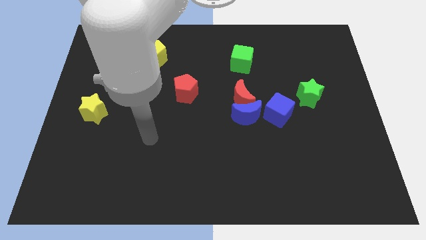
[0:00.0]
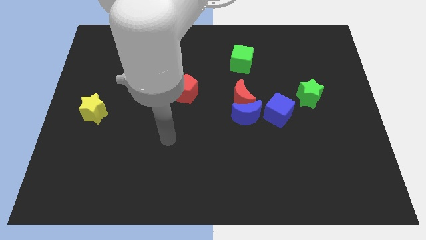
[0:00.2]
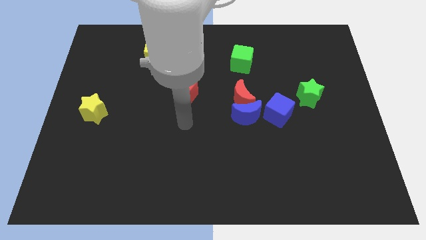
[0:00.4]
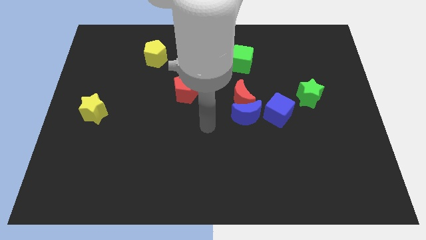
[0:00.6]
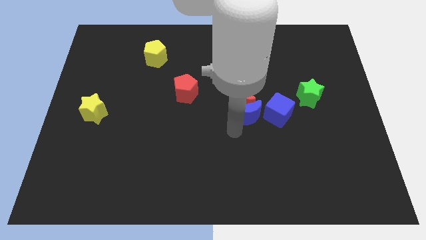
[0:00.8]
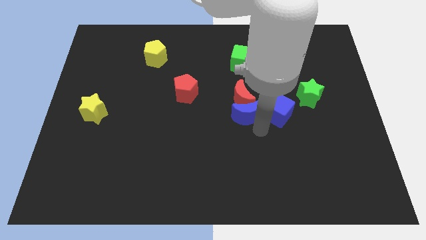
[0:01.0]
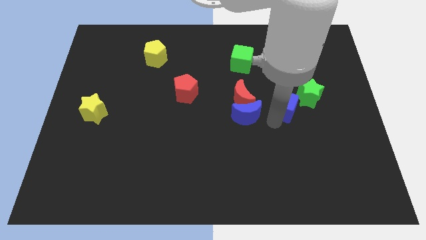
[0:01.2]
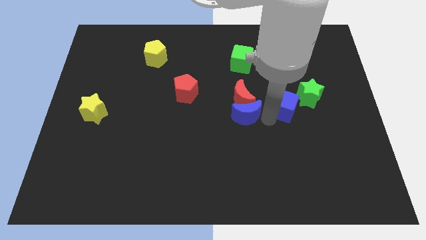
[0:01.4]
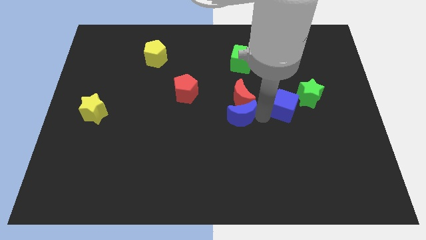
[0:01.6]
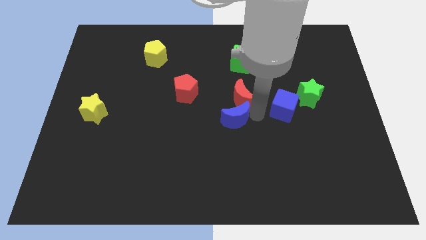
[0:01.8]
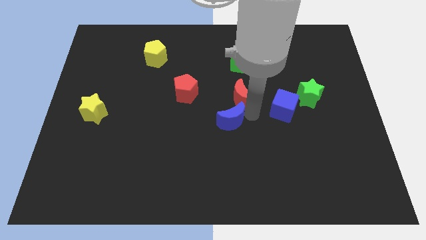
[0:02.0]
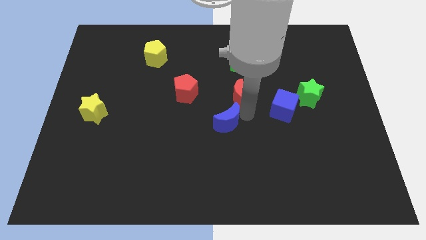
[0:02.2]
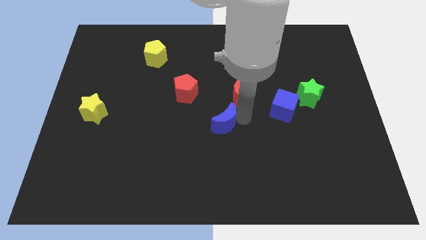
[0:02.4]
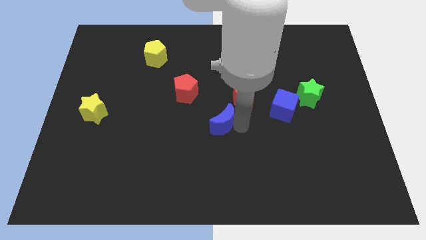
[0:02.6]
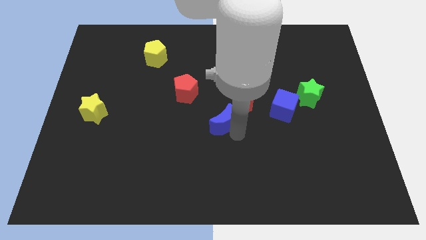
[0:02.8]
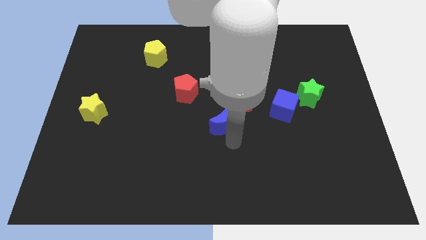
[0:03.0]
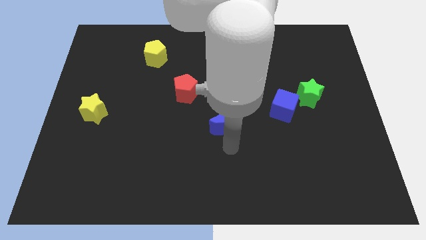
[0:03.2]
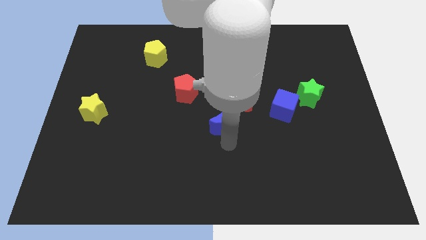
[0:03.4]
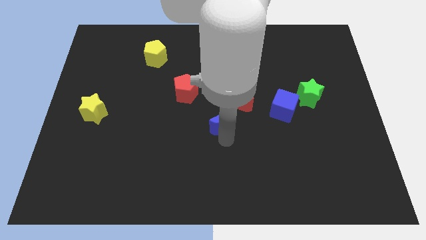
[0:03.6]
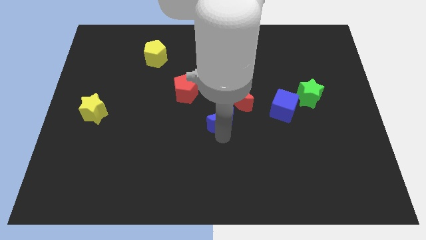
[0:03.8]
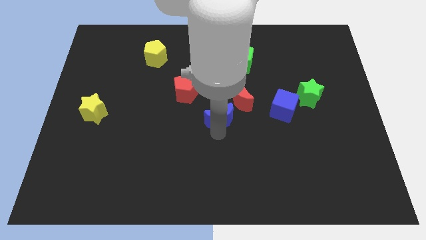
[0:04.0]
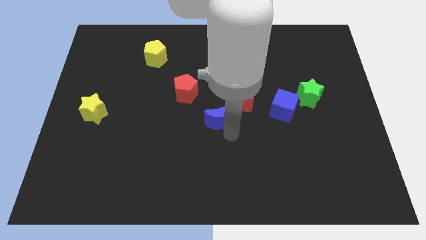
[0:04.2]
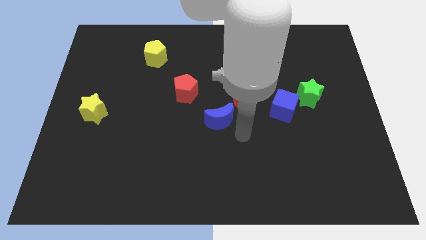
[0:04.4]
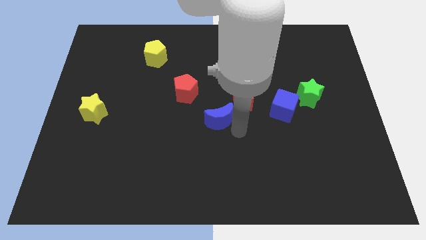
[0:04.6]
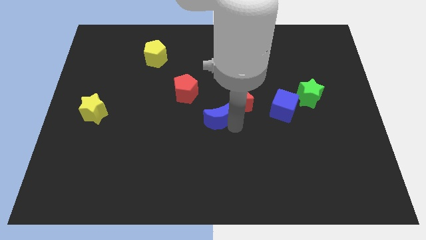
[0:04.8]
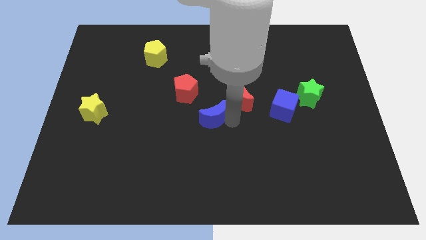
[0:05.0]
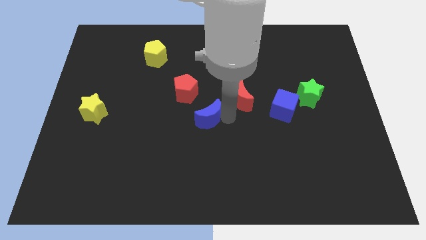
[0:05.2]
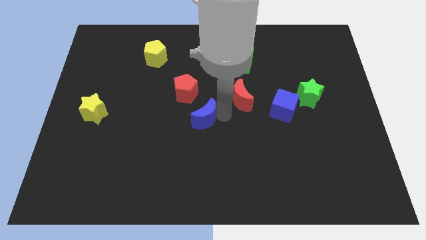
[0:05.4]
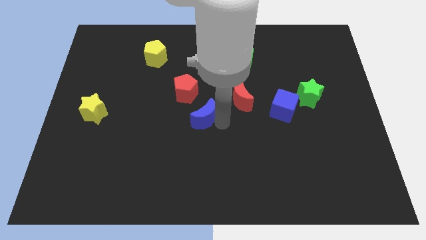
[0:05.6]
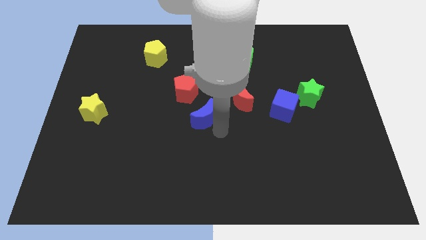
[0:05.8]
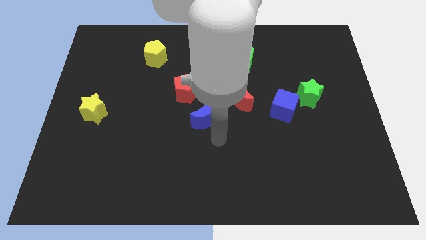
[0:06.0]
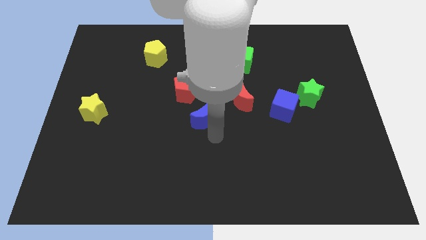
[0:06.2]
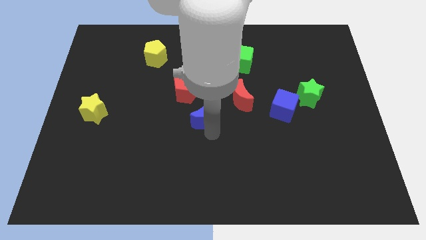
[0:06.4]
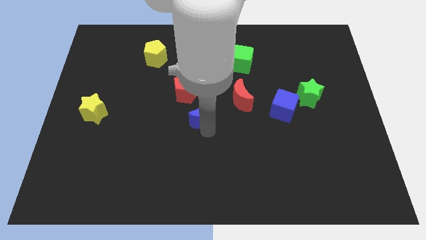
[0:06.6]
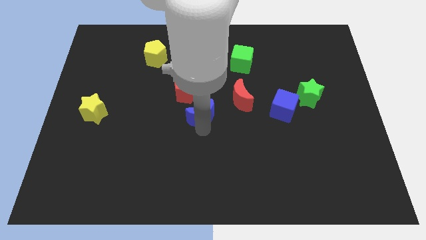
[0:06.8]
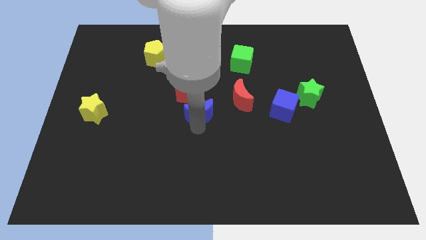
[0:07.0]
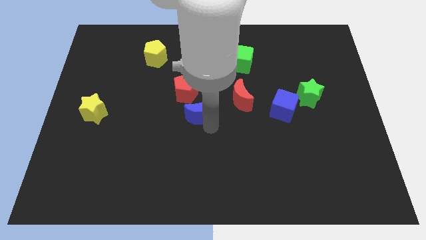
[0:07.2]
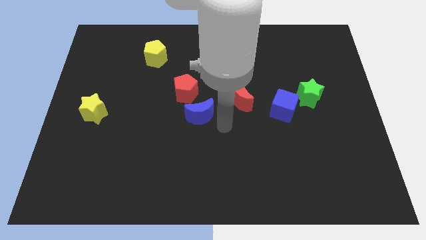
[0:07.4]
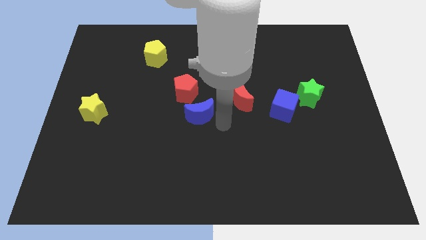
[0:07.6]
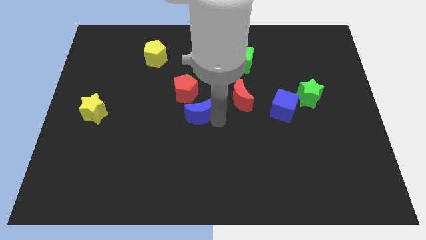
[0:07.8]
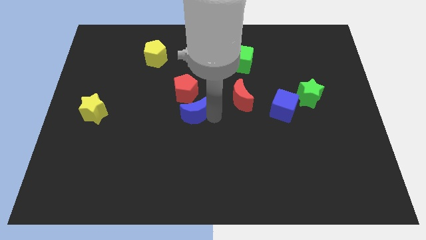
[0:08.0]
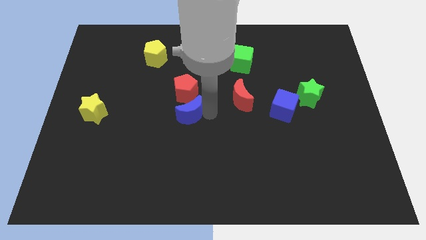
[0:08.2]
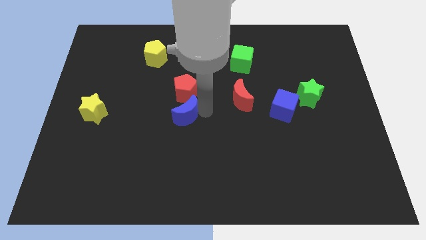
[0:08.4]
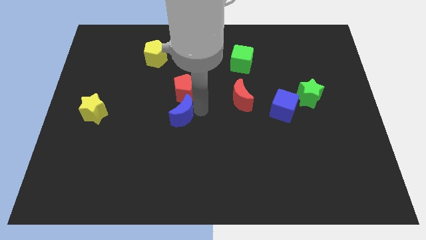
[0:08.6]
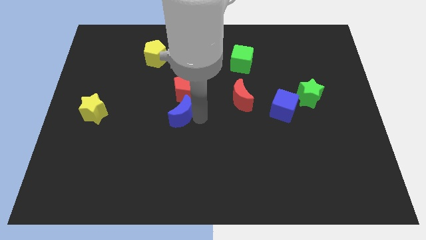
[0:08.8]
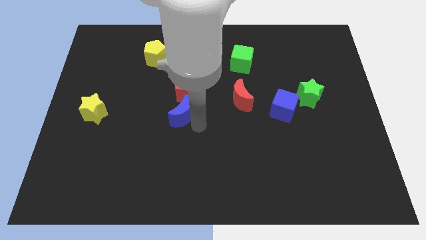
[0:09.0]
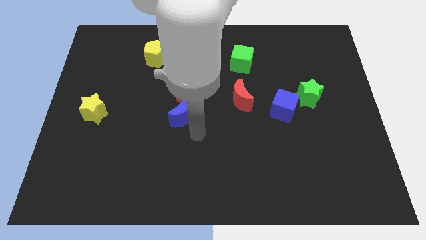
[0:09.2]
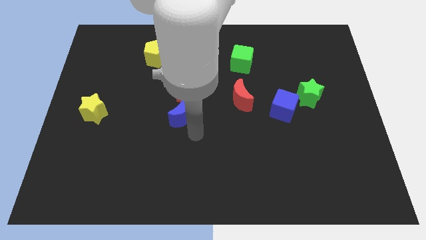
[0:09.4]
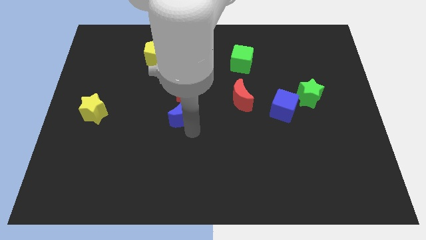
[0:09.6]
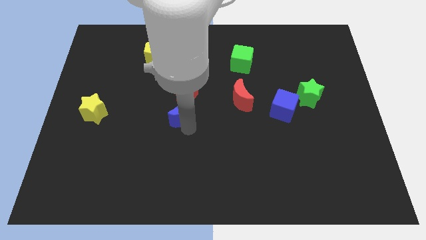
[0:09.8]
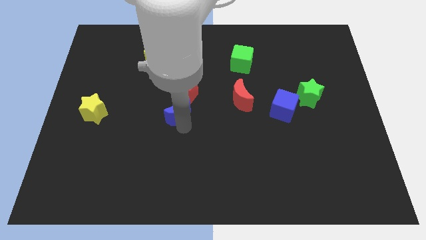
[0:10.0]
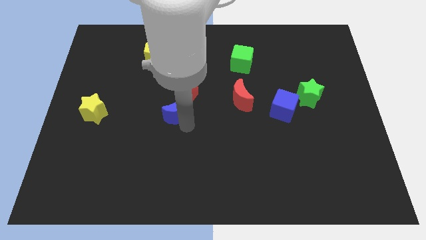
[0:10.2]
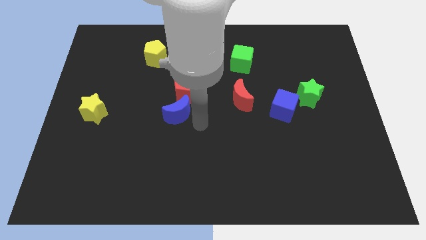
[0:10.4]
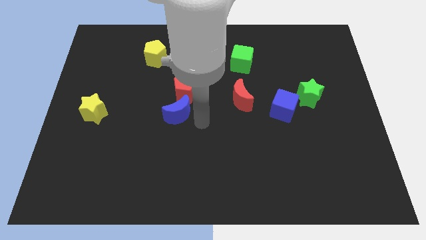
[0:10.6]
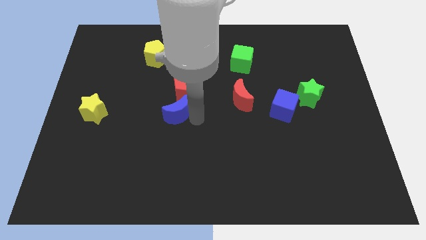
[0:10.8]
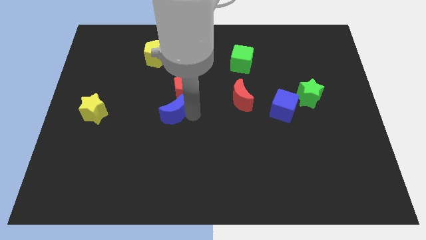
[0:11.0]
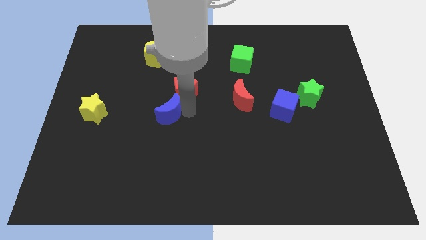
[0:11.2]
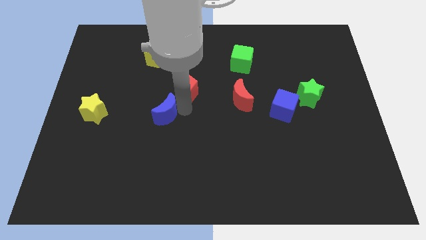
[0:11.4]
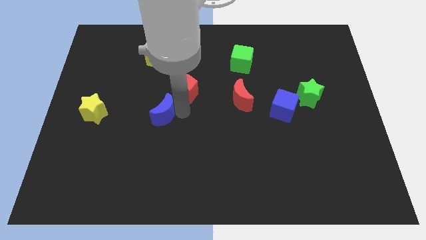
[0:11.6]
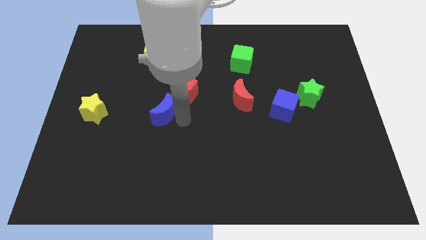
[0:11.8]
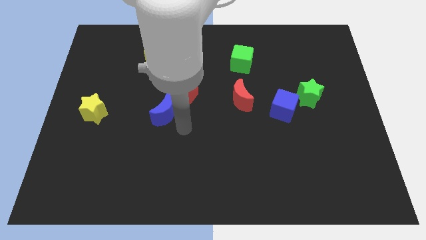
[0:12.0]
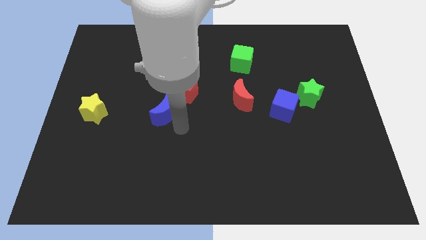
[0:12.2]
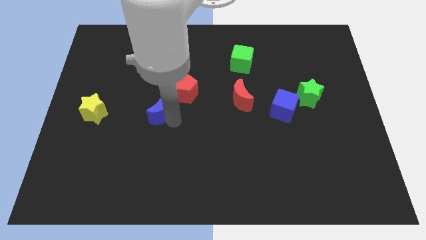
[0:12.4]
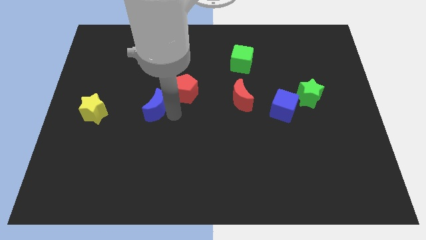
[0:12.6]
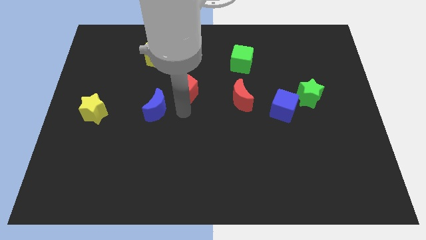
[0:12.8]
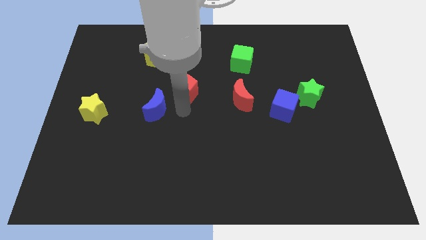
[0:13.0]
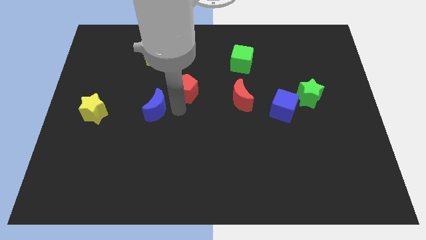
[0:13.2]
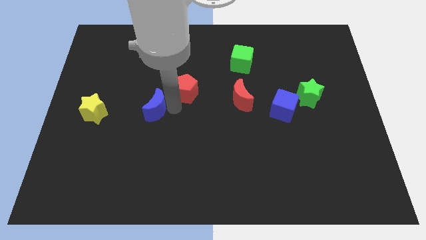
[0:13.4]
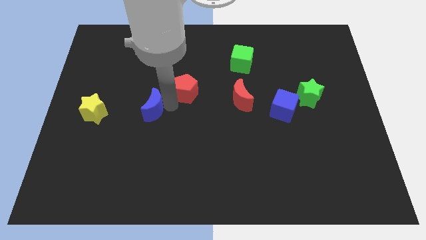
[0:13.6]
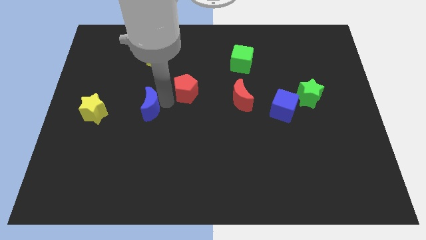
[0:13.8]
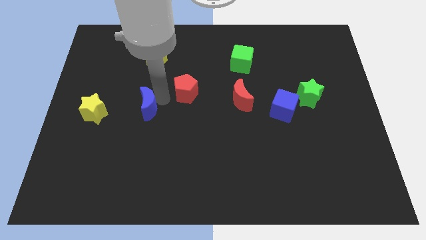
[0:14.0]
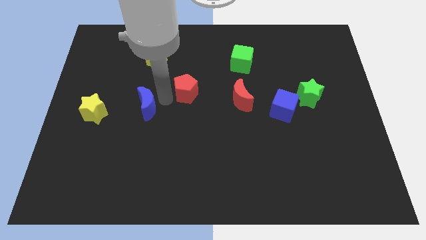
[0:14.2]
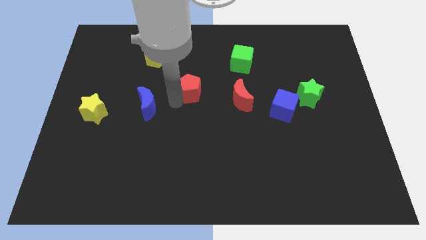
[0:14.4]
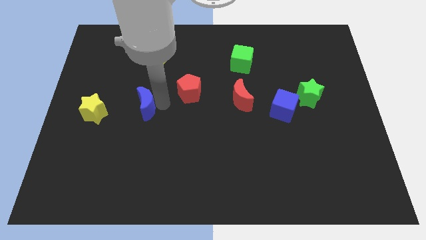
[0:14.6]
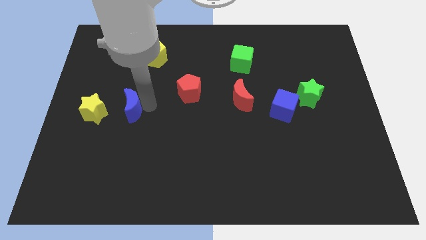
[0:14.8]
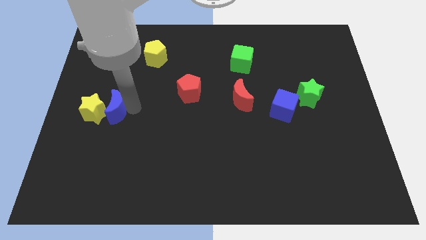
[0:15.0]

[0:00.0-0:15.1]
slide the blue moon close to the yellow star
